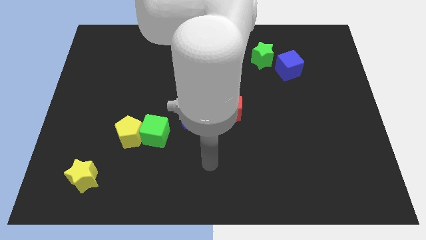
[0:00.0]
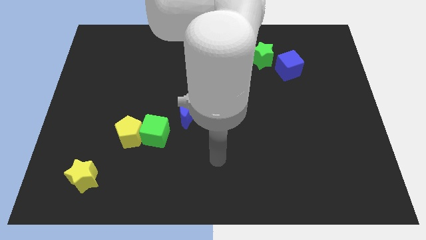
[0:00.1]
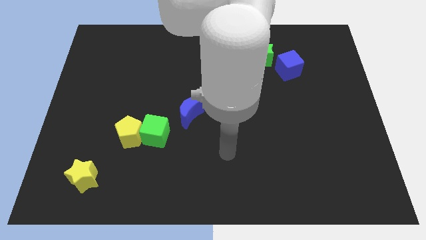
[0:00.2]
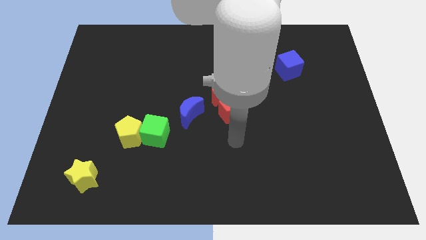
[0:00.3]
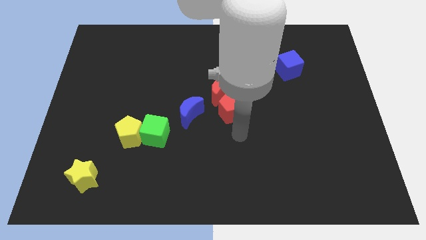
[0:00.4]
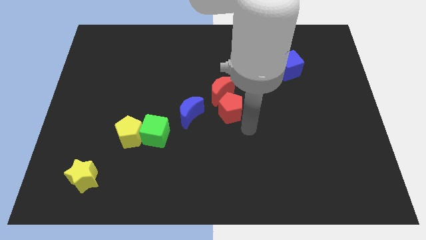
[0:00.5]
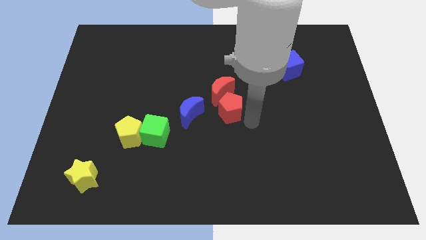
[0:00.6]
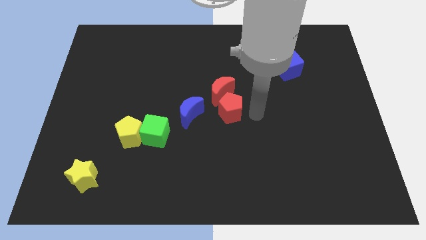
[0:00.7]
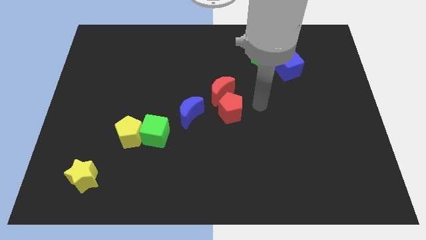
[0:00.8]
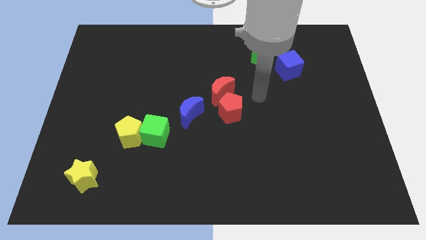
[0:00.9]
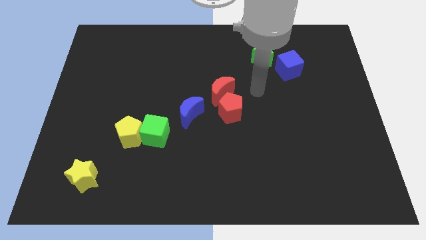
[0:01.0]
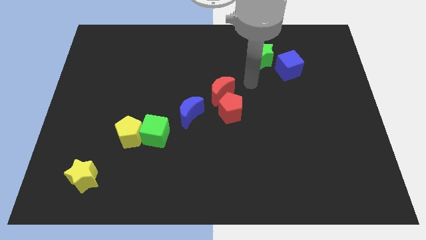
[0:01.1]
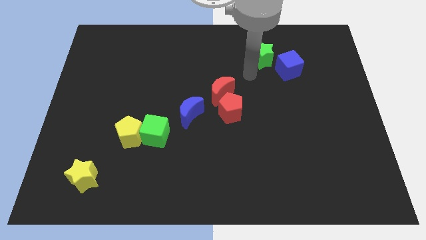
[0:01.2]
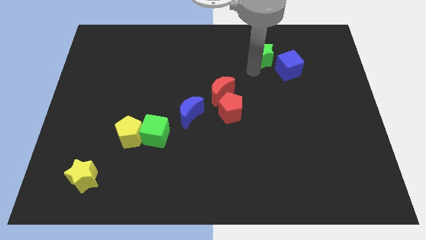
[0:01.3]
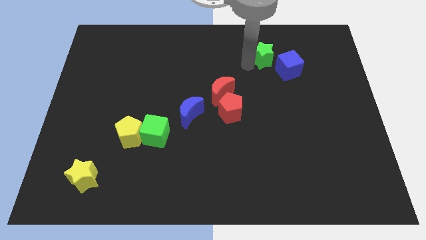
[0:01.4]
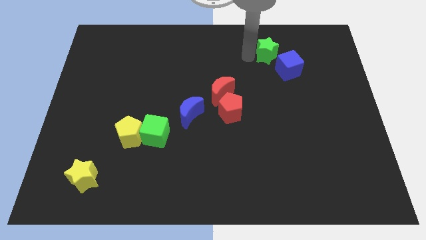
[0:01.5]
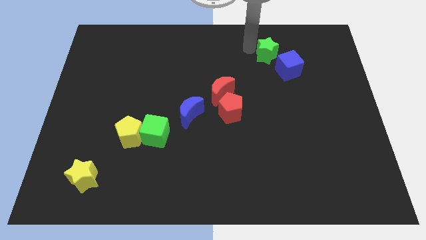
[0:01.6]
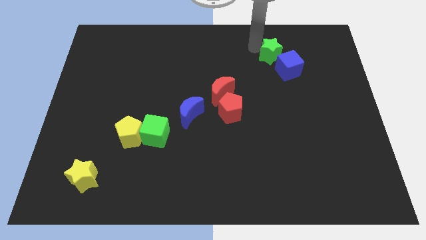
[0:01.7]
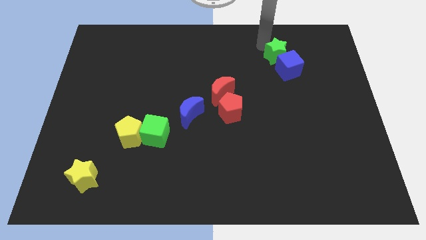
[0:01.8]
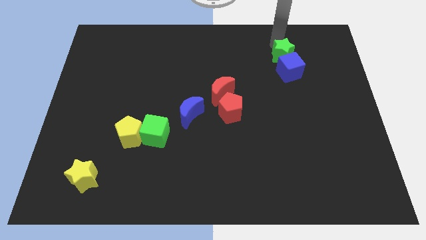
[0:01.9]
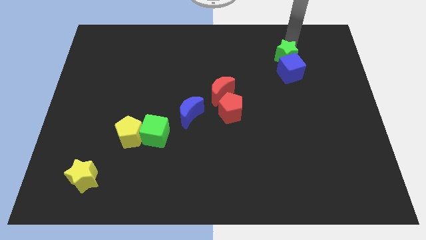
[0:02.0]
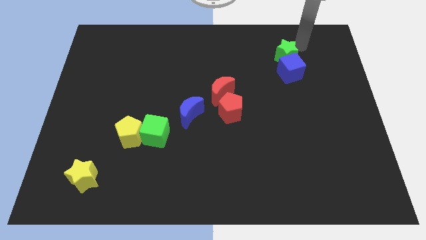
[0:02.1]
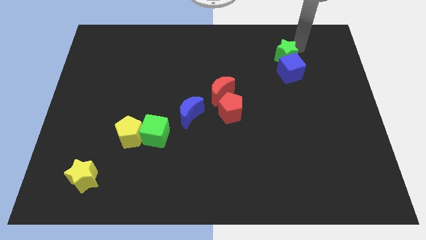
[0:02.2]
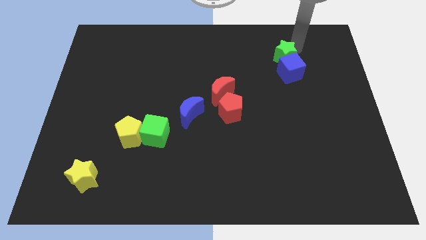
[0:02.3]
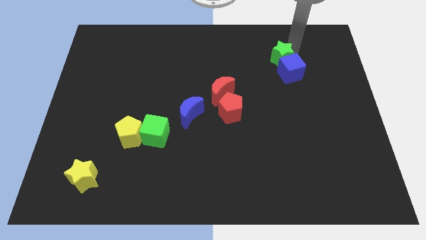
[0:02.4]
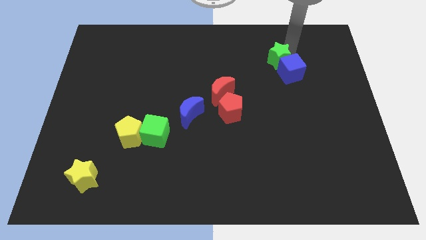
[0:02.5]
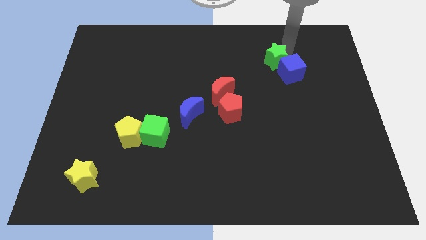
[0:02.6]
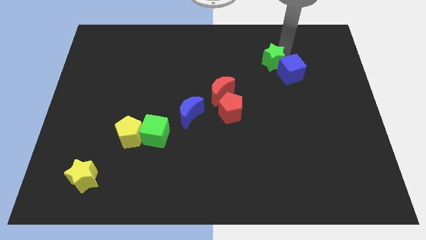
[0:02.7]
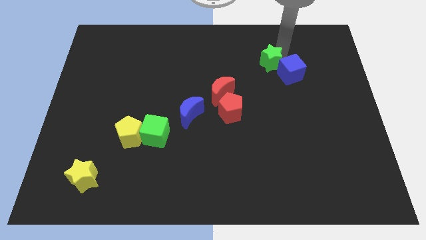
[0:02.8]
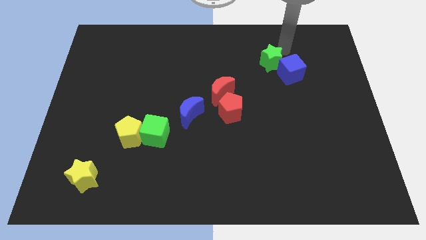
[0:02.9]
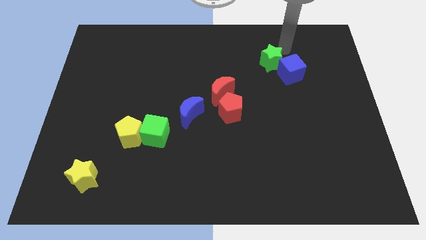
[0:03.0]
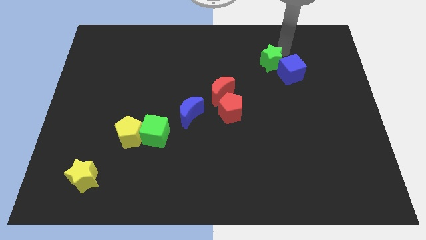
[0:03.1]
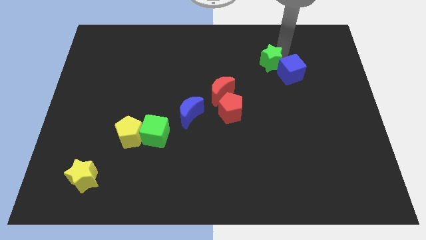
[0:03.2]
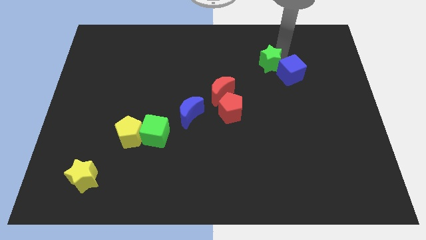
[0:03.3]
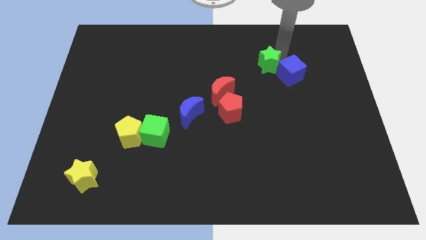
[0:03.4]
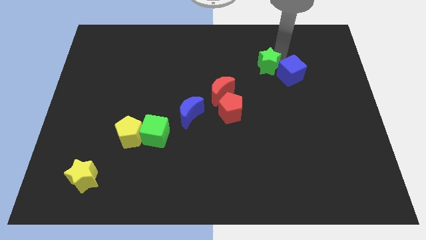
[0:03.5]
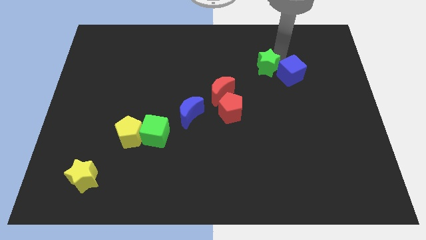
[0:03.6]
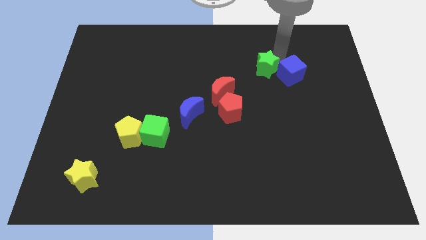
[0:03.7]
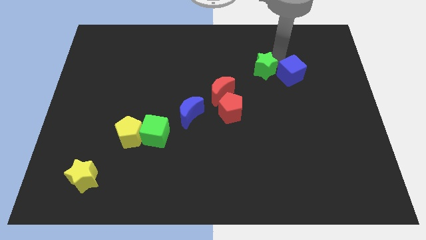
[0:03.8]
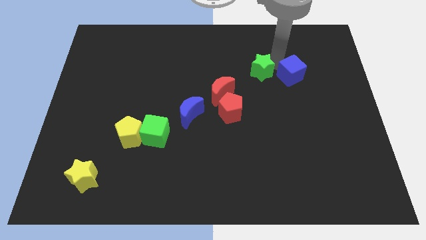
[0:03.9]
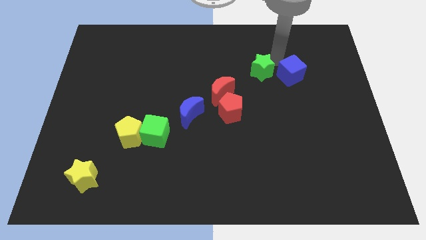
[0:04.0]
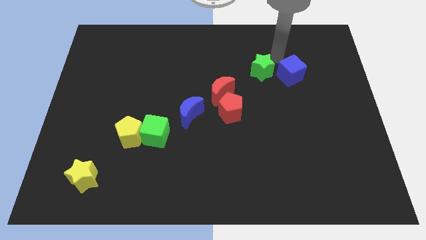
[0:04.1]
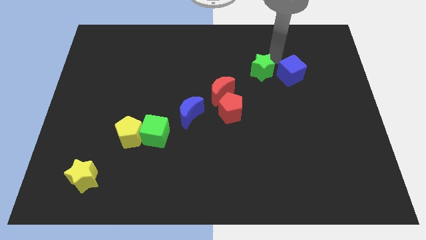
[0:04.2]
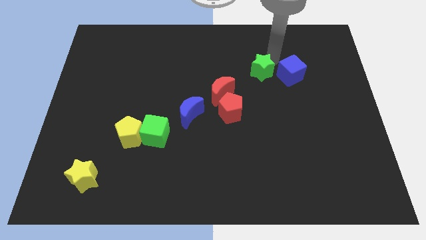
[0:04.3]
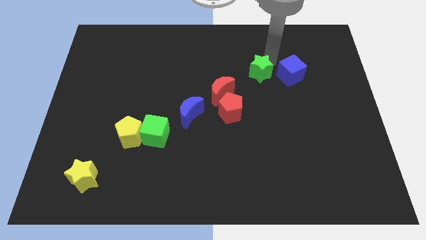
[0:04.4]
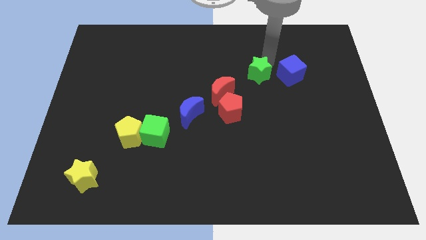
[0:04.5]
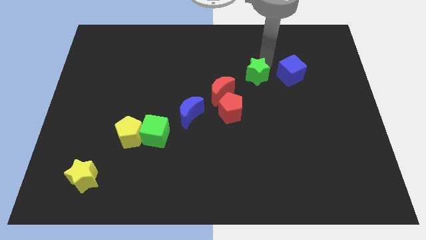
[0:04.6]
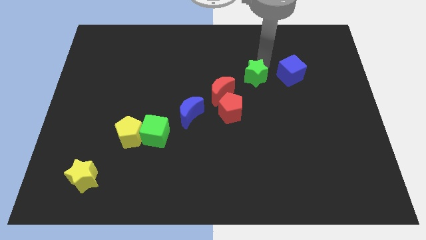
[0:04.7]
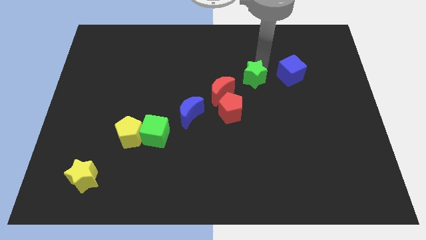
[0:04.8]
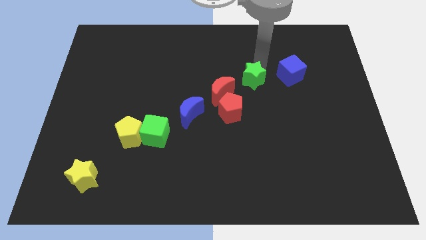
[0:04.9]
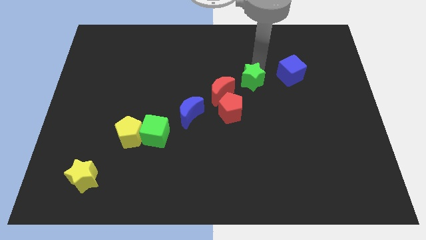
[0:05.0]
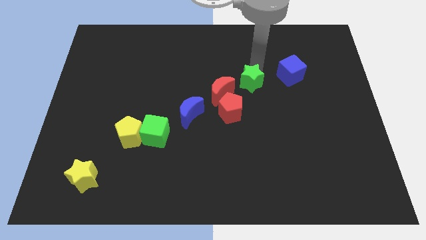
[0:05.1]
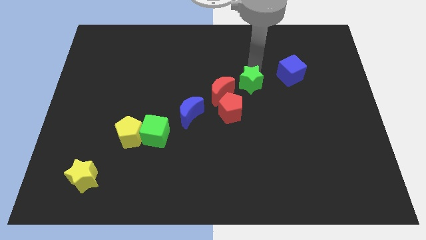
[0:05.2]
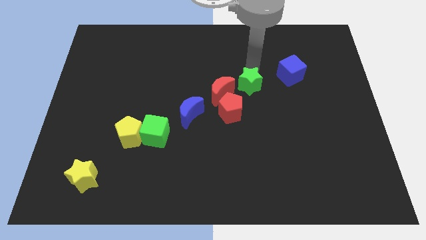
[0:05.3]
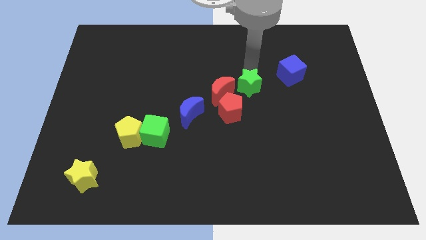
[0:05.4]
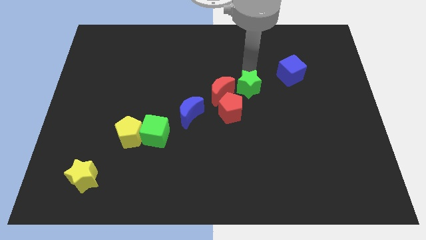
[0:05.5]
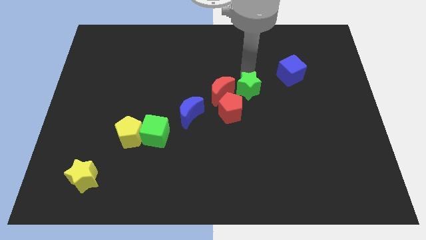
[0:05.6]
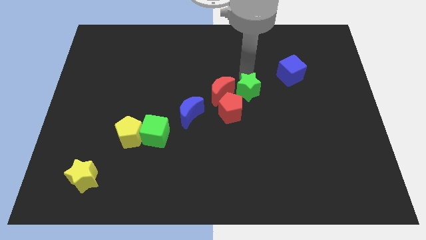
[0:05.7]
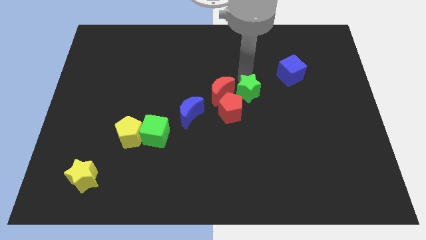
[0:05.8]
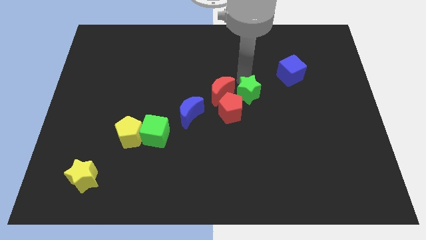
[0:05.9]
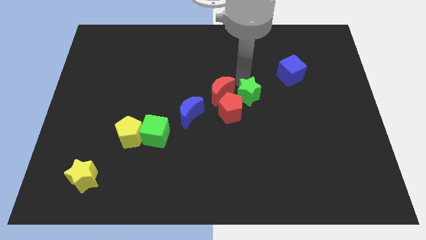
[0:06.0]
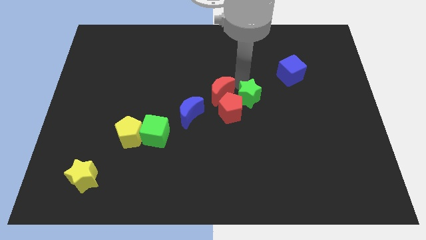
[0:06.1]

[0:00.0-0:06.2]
push the green star to the red pentagon

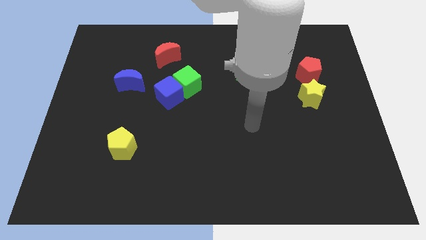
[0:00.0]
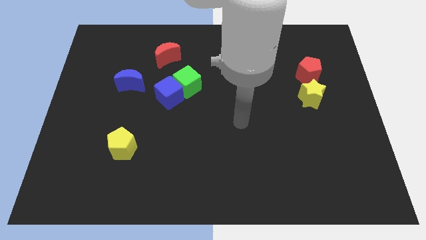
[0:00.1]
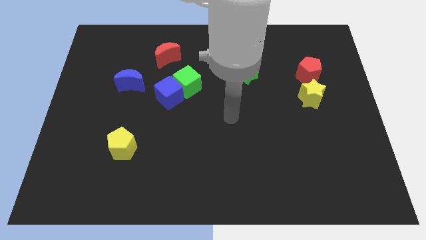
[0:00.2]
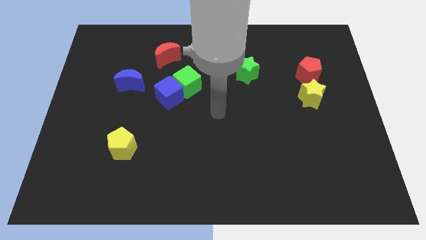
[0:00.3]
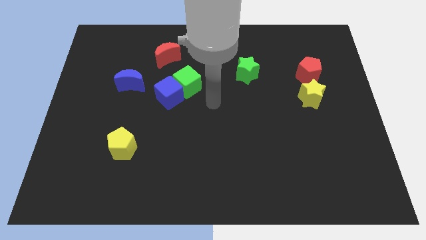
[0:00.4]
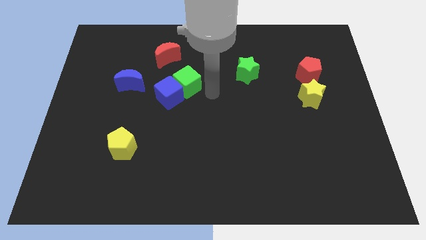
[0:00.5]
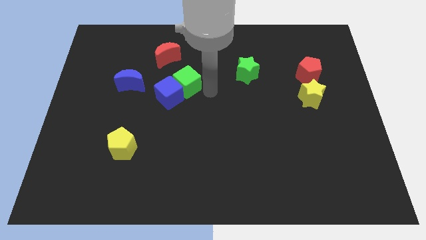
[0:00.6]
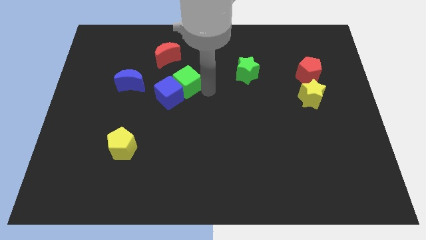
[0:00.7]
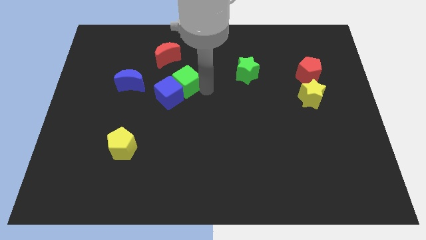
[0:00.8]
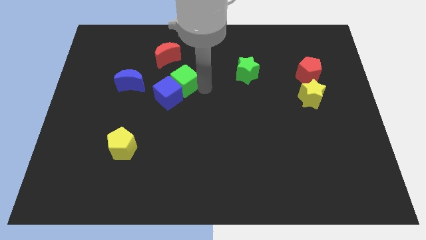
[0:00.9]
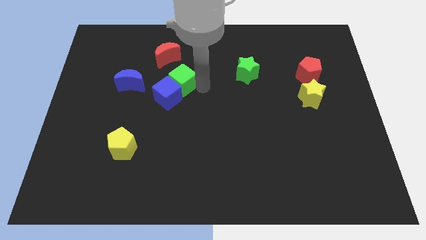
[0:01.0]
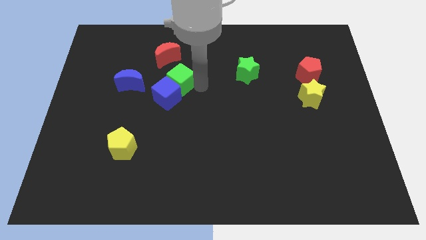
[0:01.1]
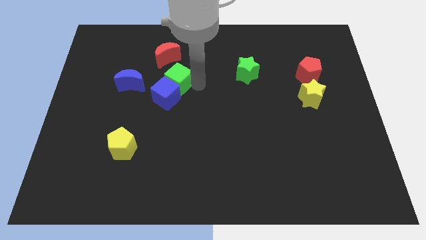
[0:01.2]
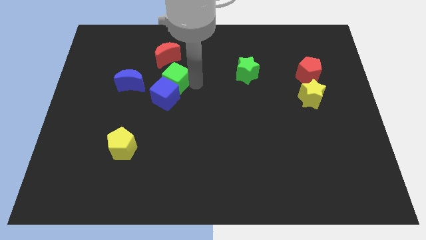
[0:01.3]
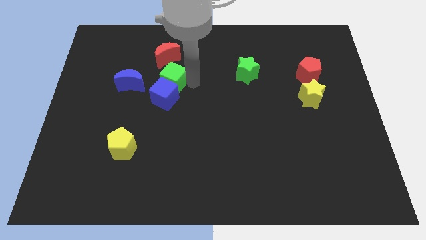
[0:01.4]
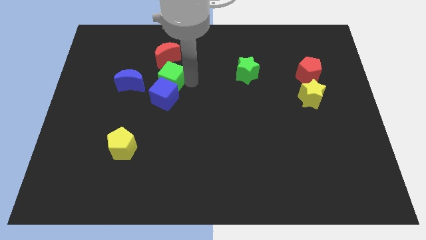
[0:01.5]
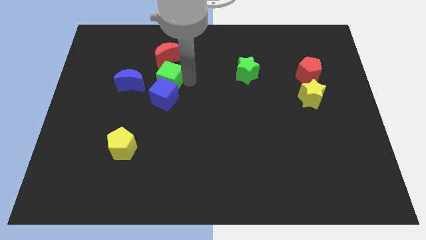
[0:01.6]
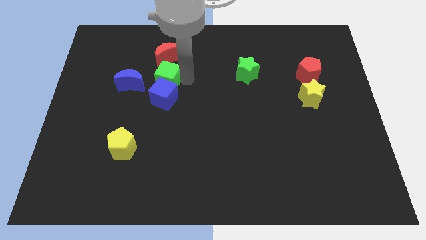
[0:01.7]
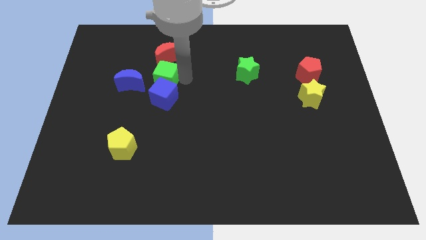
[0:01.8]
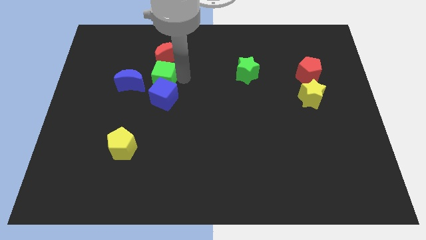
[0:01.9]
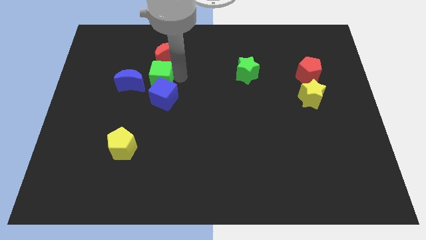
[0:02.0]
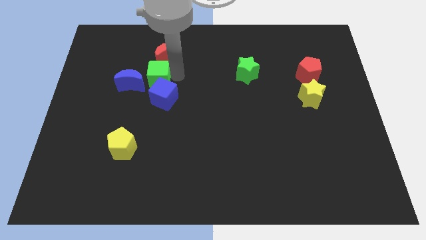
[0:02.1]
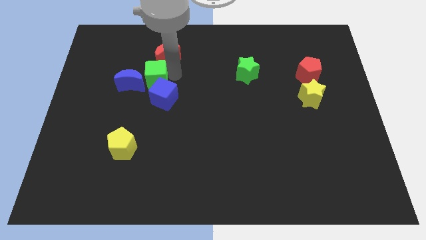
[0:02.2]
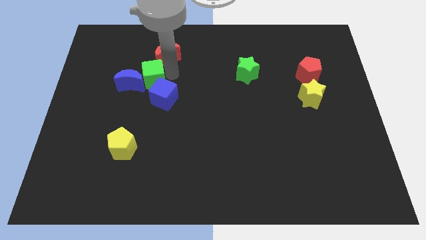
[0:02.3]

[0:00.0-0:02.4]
move the green cube next to the blue moon
